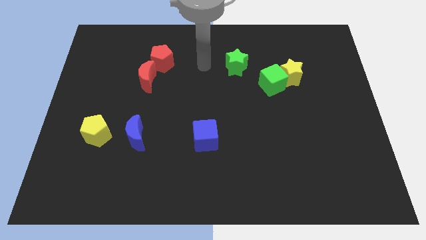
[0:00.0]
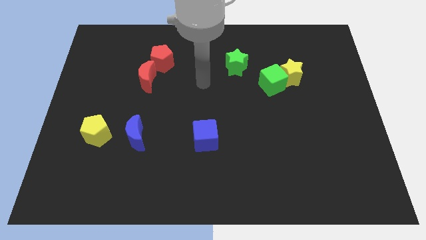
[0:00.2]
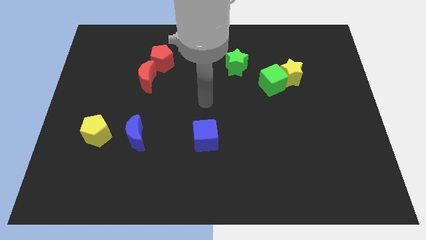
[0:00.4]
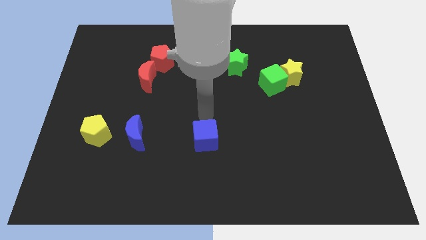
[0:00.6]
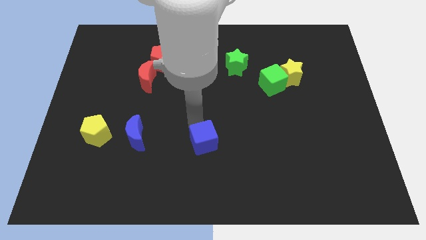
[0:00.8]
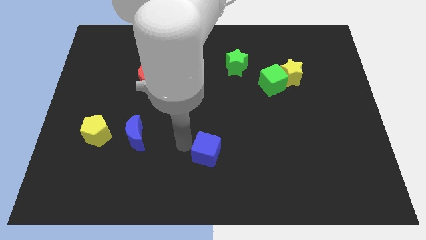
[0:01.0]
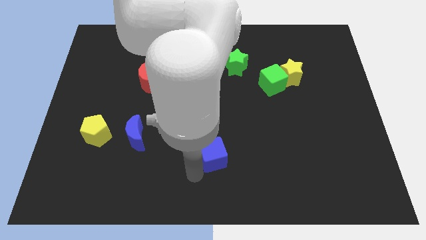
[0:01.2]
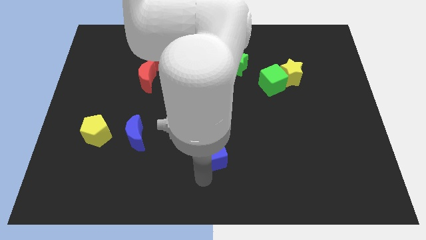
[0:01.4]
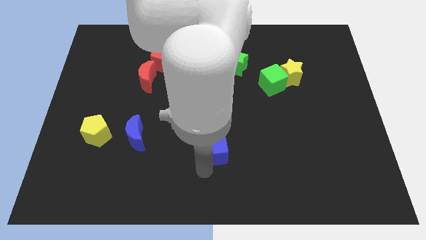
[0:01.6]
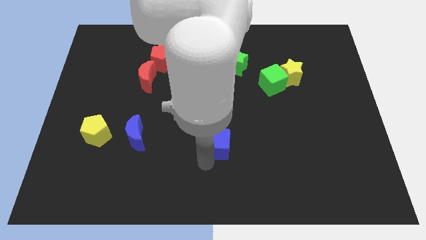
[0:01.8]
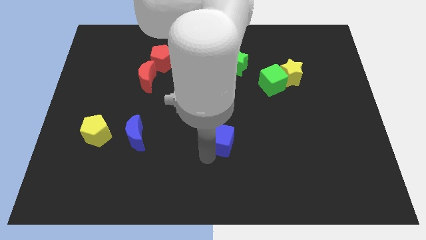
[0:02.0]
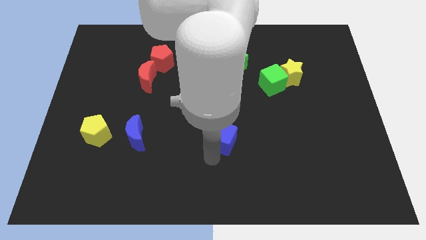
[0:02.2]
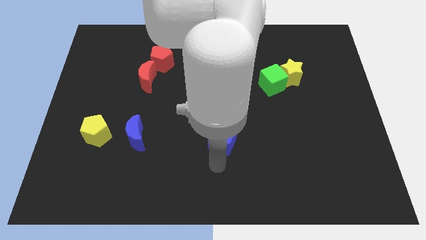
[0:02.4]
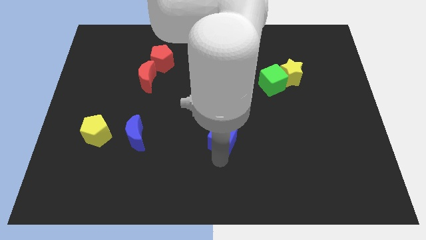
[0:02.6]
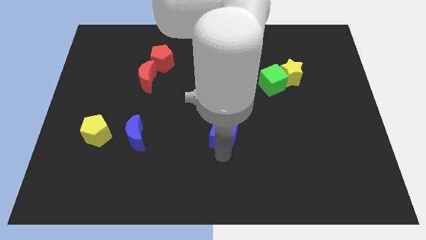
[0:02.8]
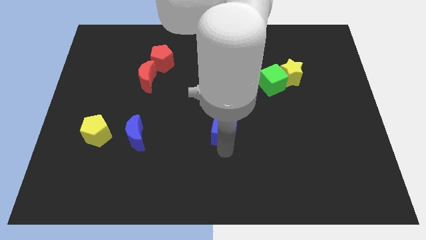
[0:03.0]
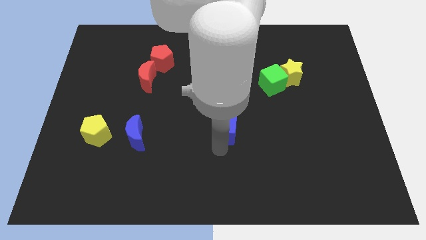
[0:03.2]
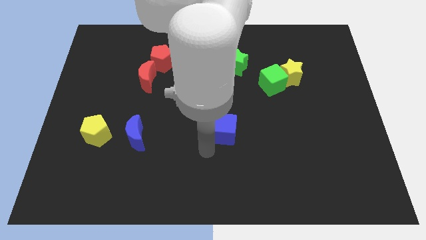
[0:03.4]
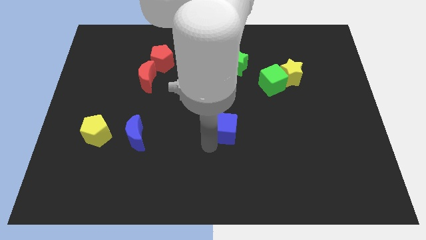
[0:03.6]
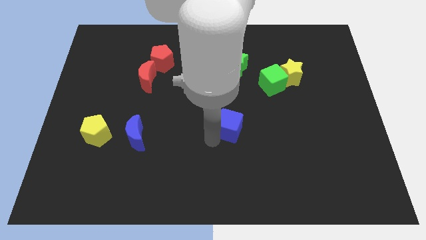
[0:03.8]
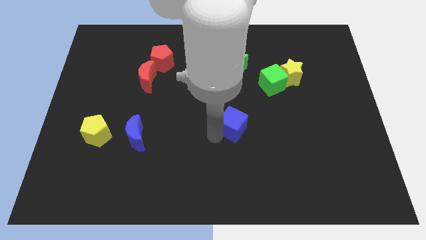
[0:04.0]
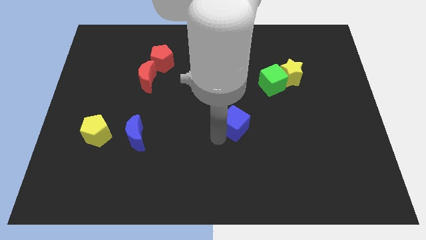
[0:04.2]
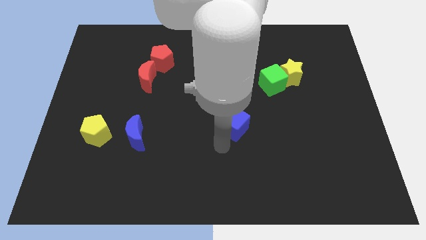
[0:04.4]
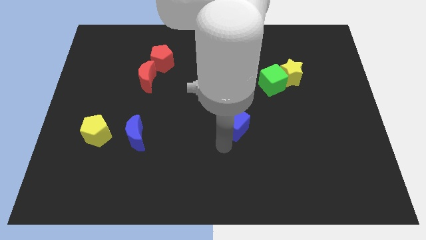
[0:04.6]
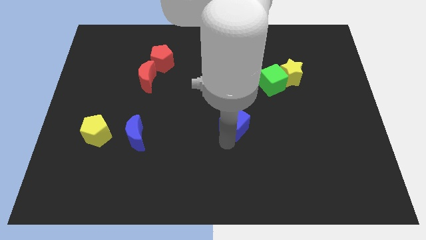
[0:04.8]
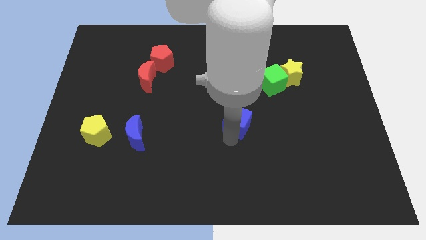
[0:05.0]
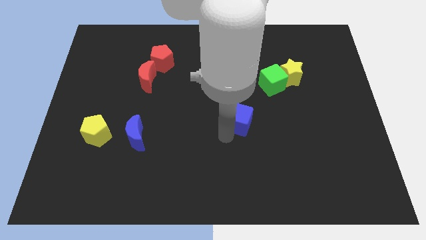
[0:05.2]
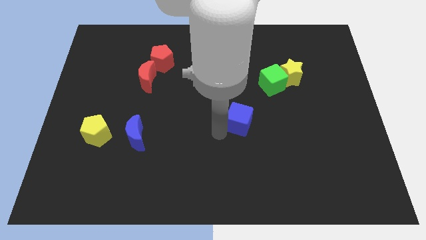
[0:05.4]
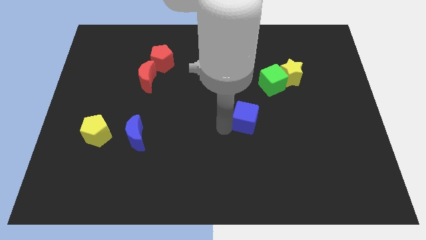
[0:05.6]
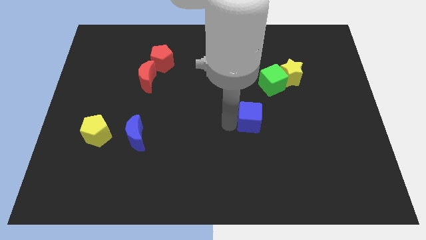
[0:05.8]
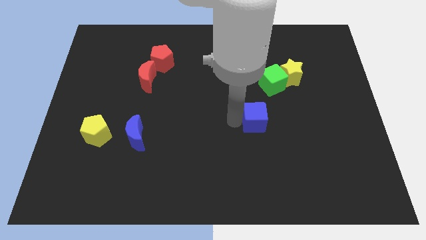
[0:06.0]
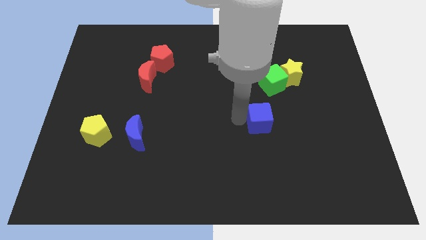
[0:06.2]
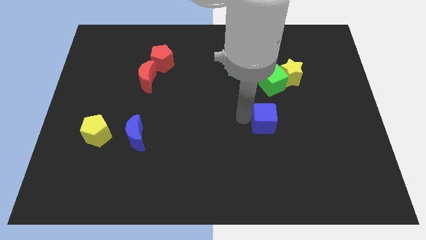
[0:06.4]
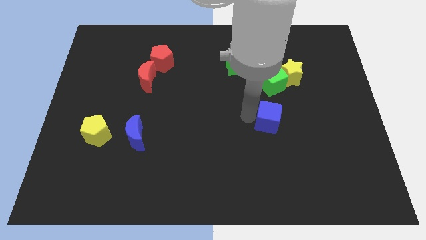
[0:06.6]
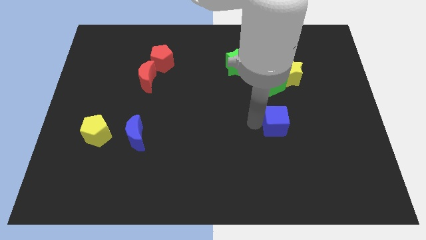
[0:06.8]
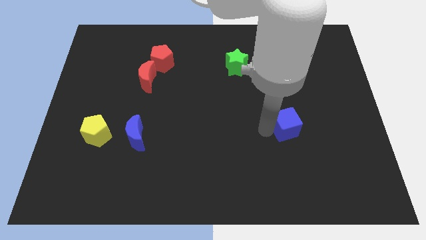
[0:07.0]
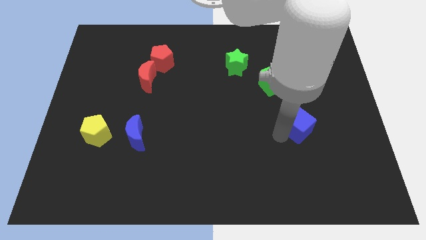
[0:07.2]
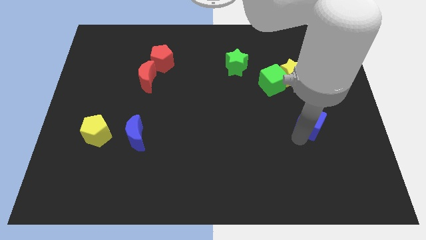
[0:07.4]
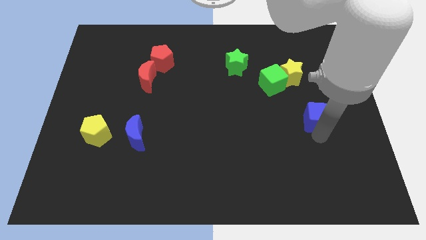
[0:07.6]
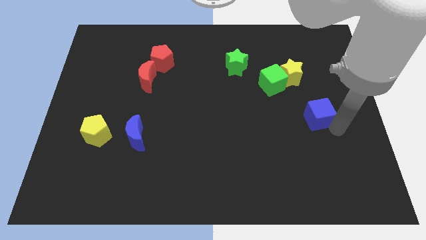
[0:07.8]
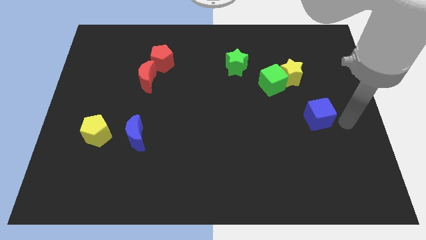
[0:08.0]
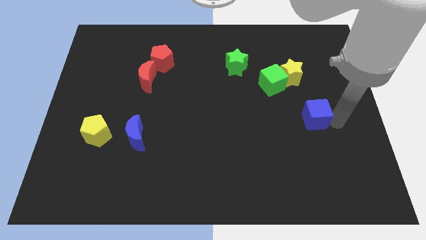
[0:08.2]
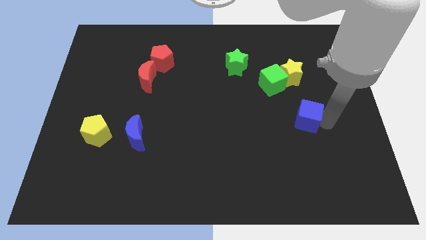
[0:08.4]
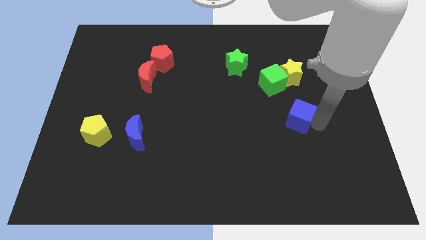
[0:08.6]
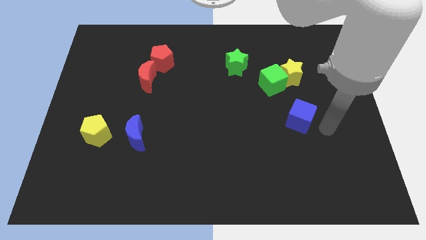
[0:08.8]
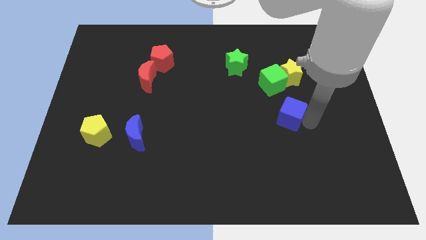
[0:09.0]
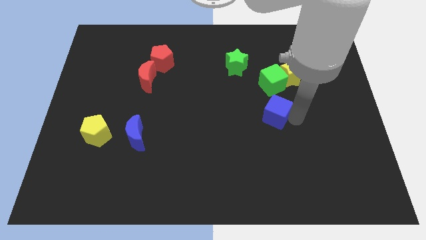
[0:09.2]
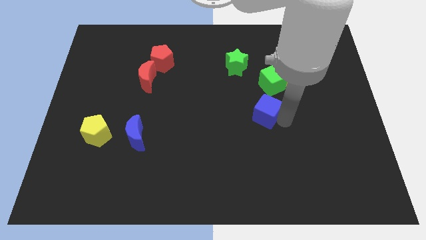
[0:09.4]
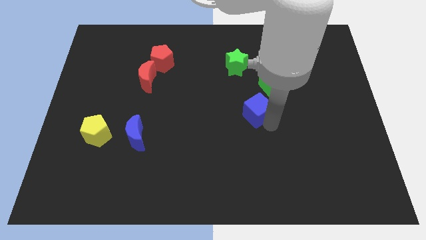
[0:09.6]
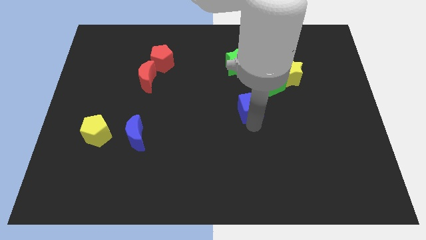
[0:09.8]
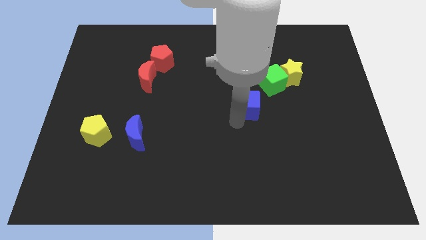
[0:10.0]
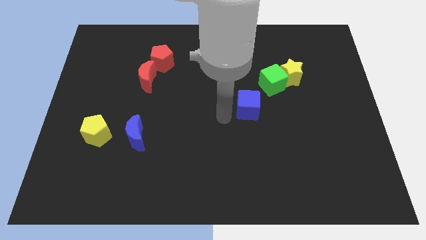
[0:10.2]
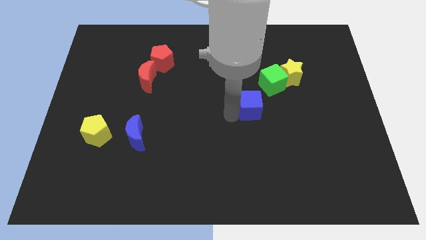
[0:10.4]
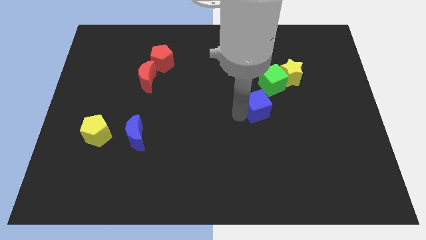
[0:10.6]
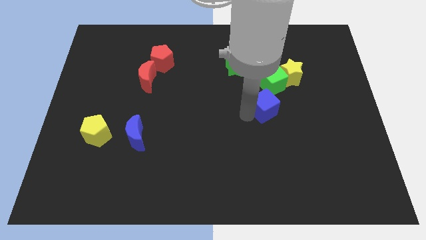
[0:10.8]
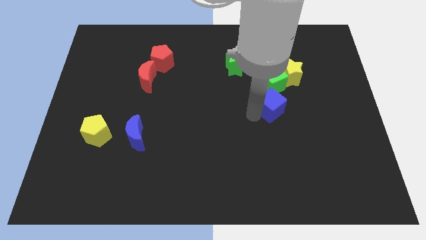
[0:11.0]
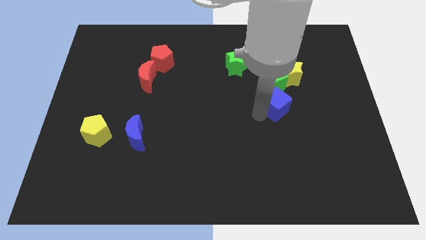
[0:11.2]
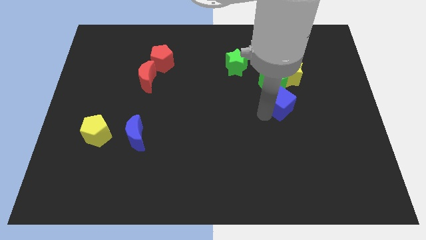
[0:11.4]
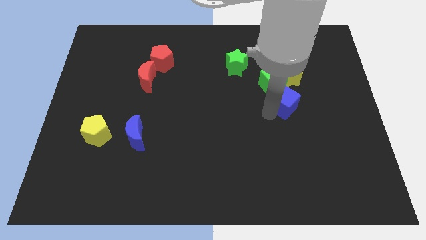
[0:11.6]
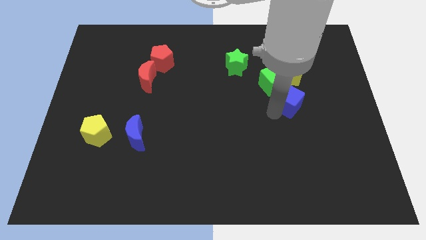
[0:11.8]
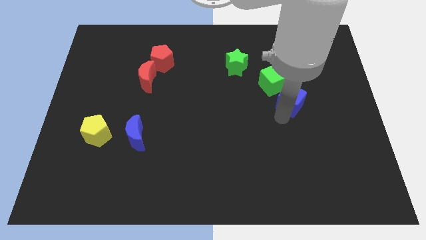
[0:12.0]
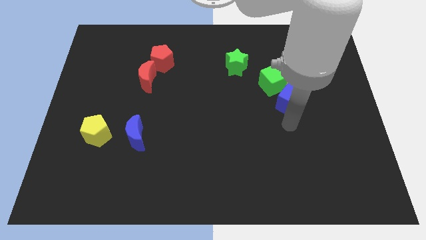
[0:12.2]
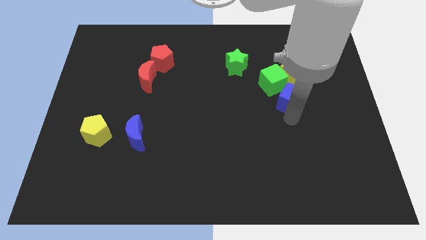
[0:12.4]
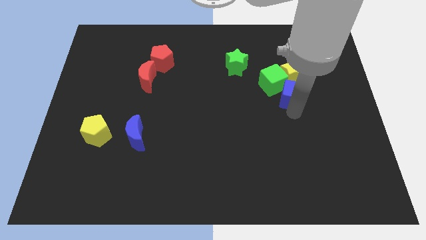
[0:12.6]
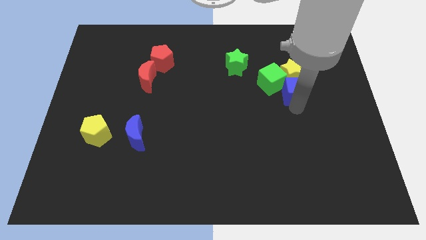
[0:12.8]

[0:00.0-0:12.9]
move the blue cube close to the yellow star
